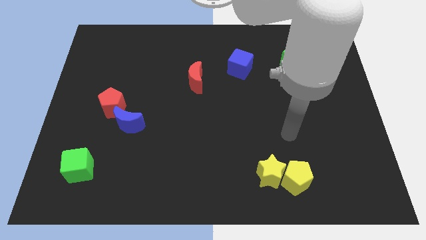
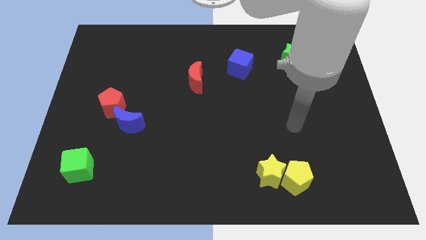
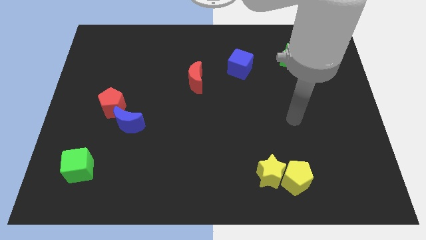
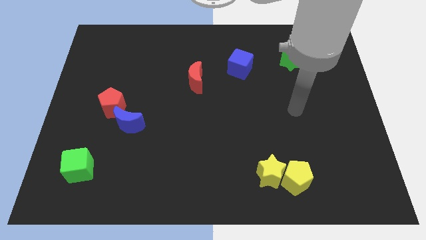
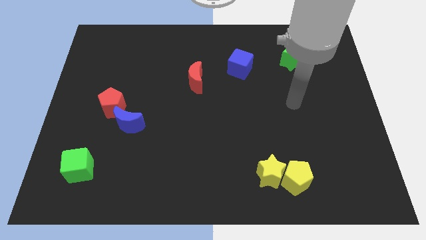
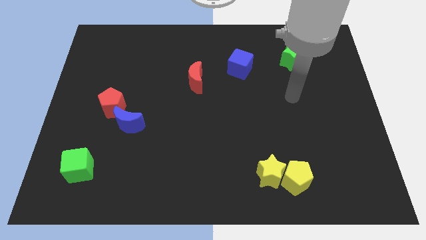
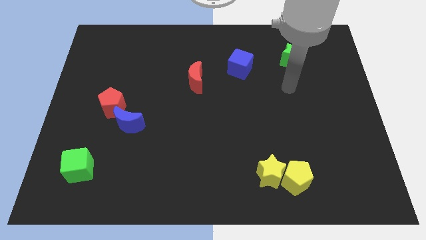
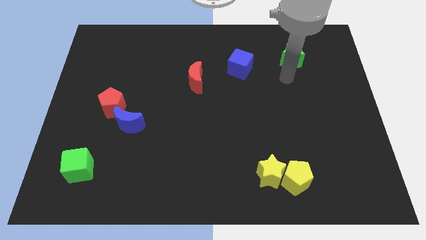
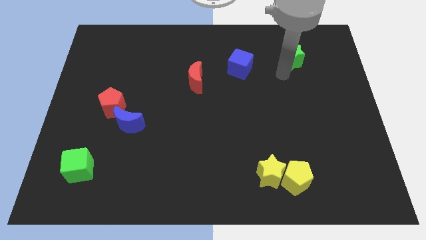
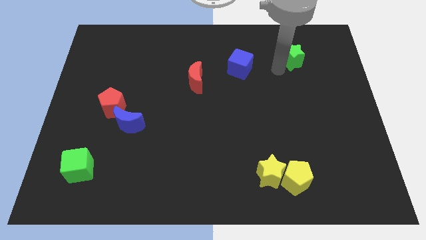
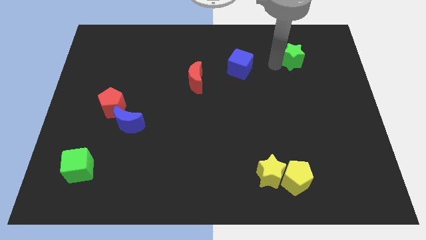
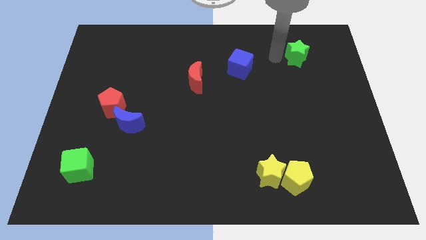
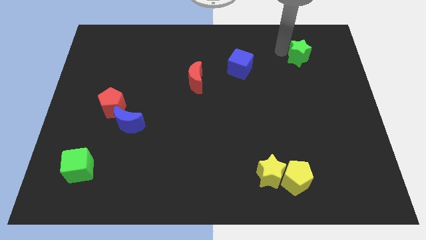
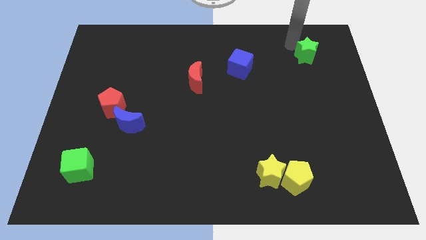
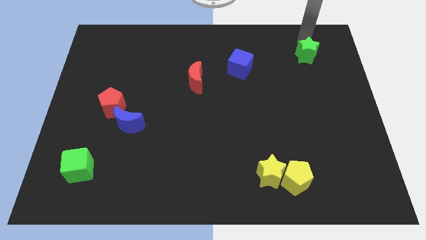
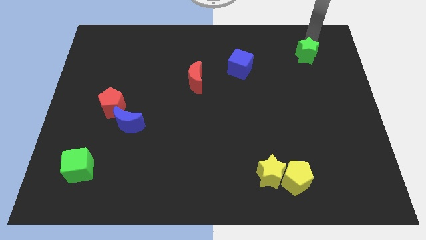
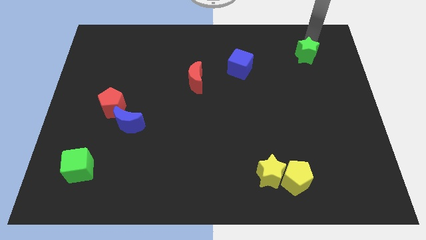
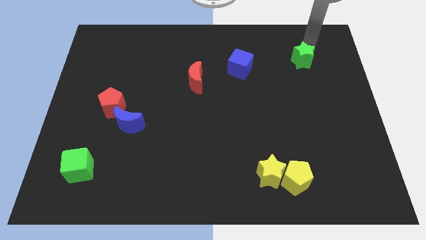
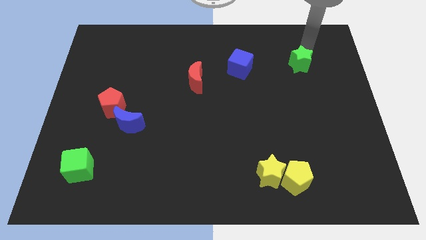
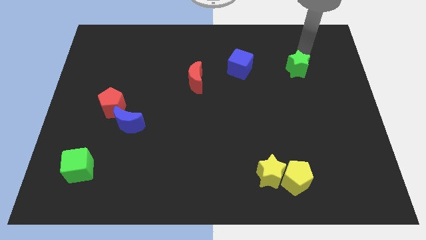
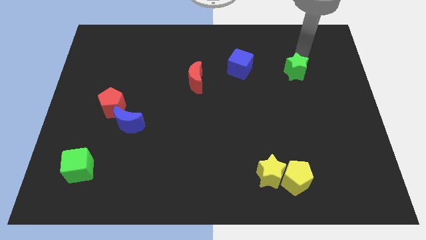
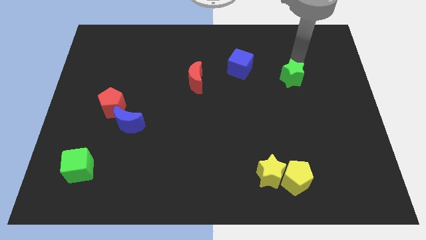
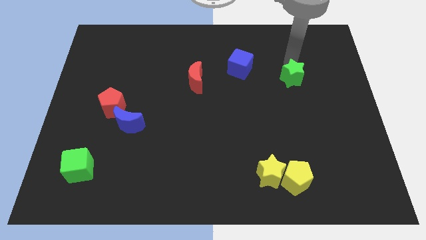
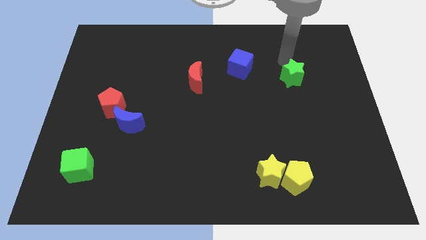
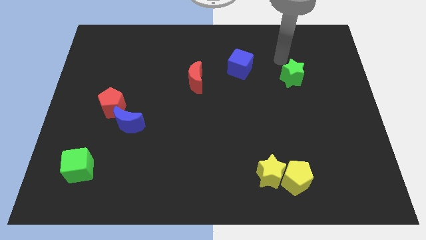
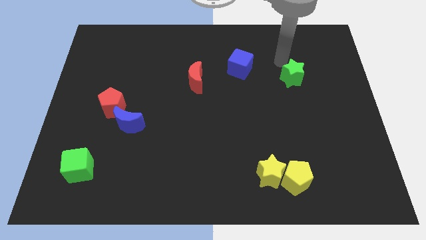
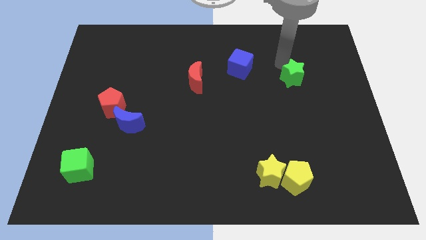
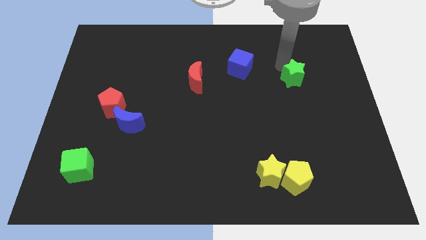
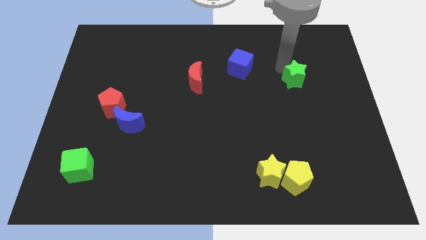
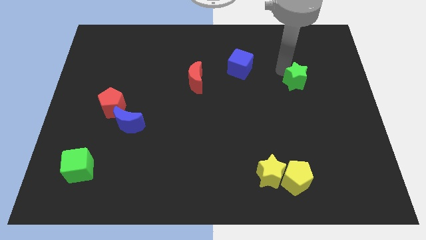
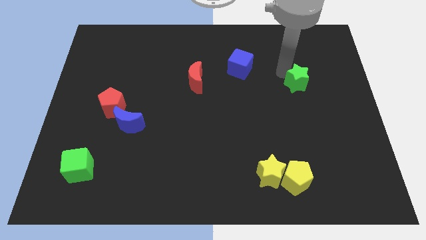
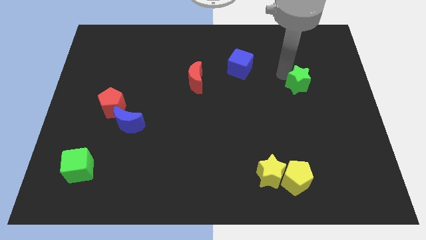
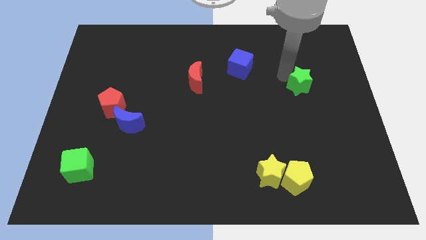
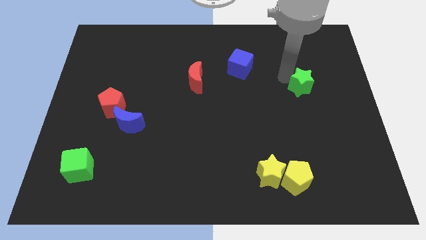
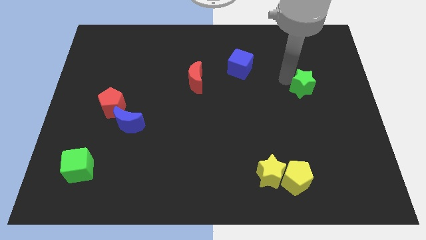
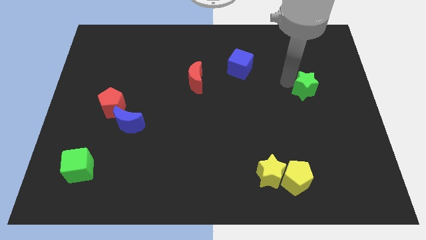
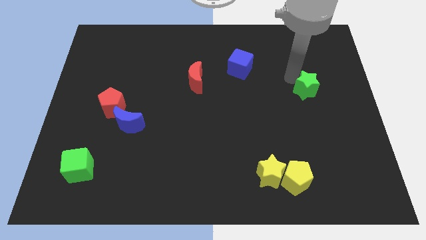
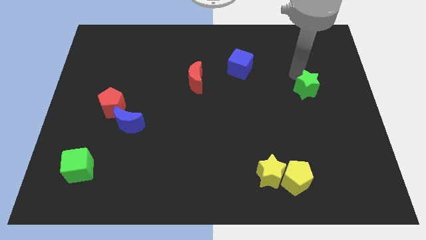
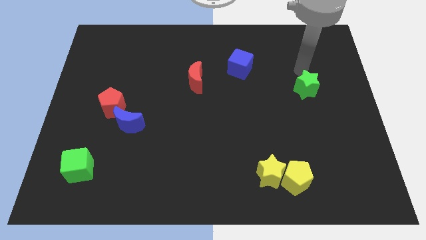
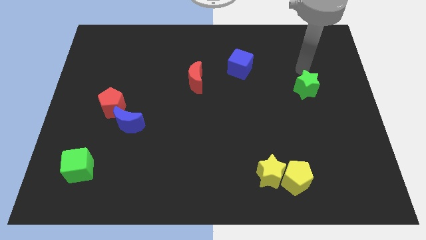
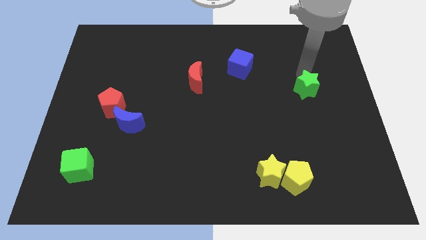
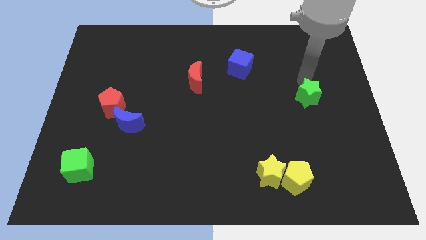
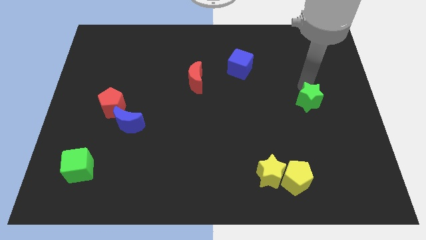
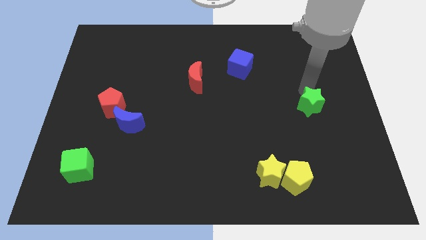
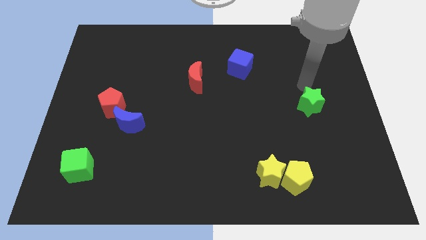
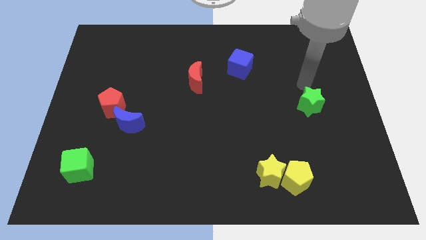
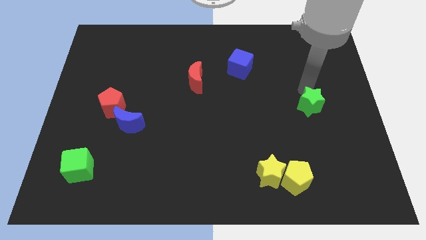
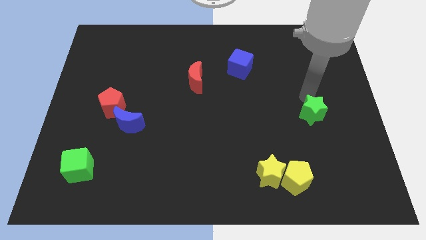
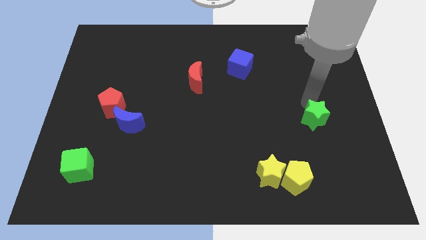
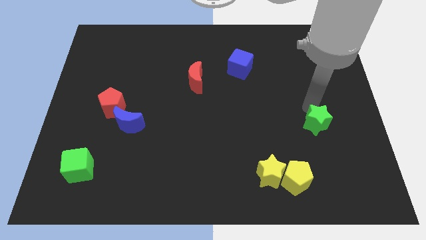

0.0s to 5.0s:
move the green star downwards

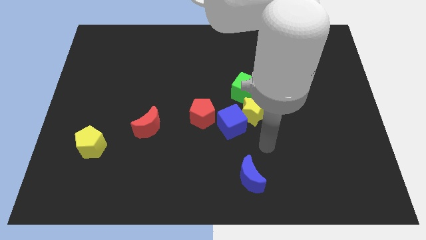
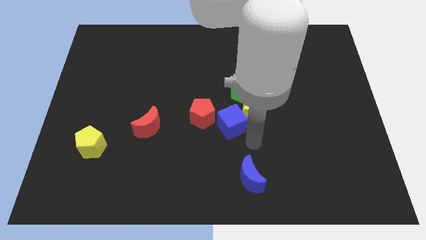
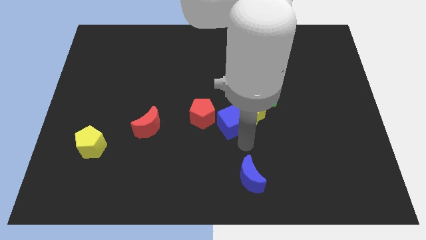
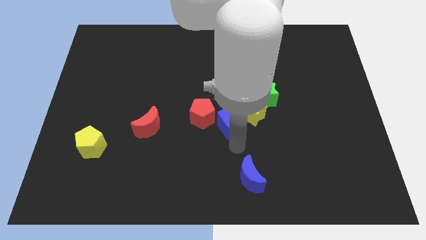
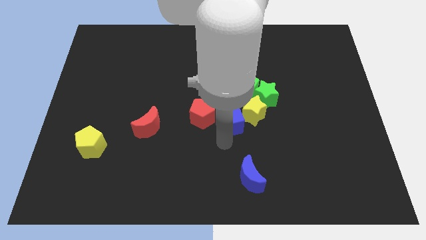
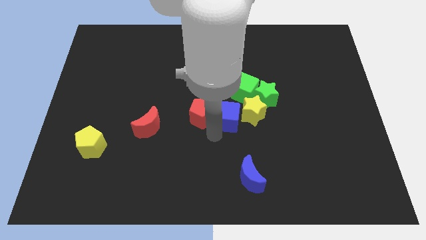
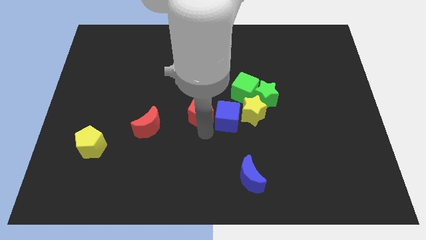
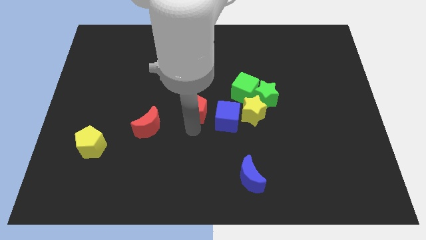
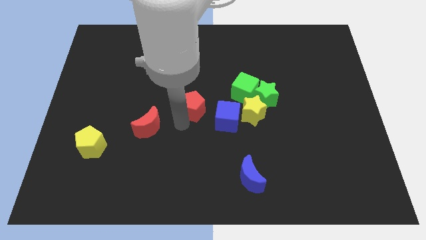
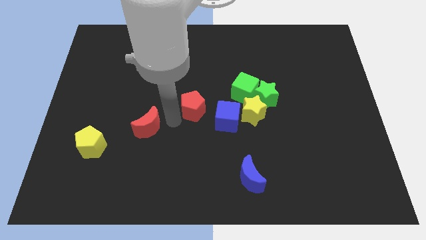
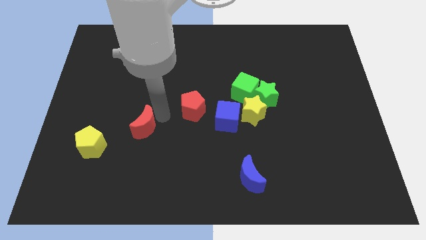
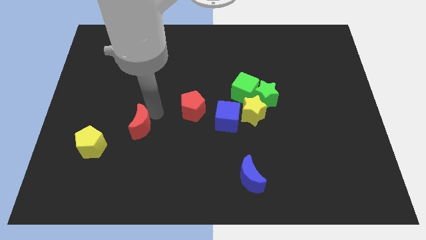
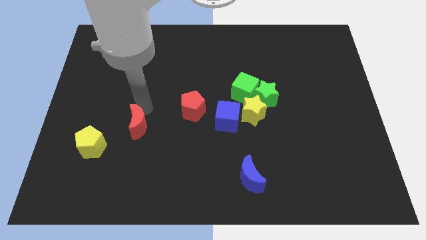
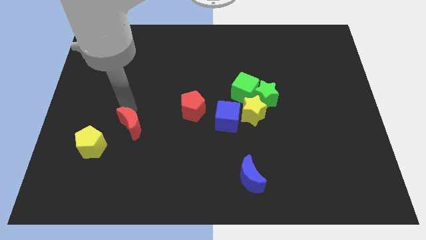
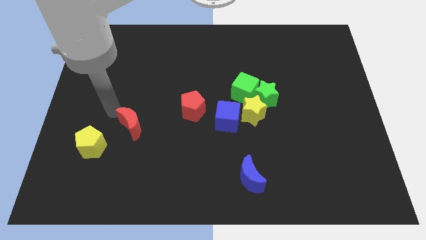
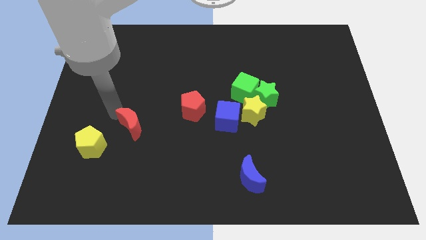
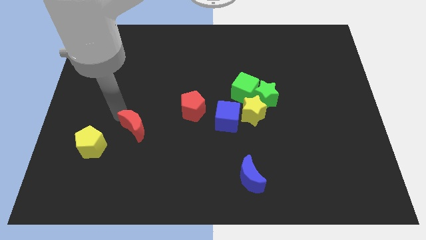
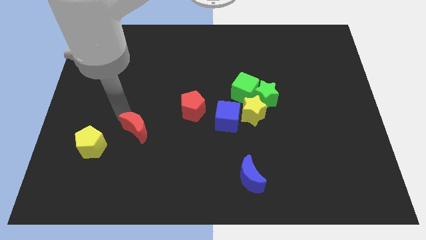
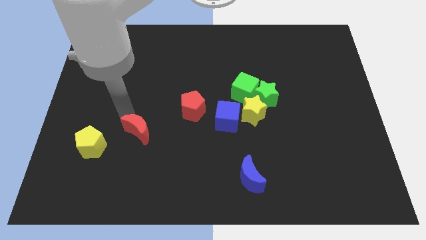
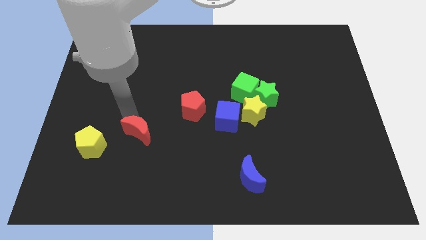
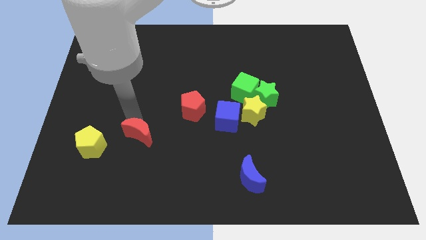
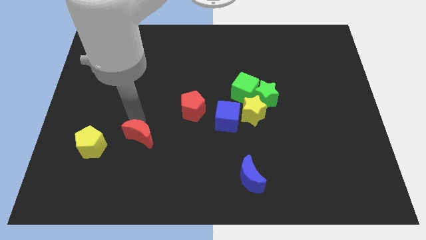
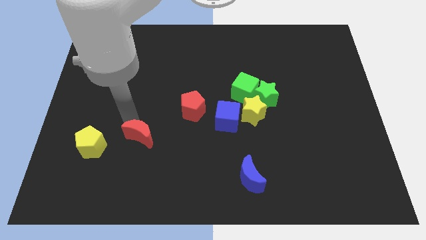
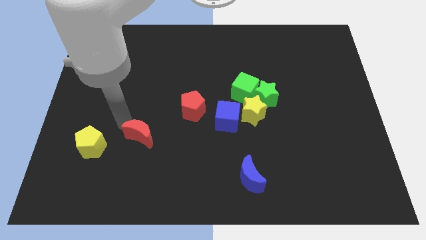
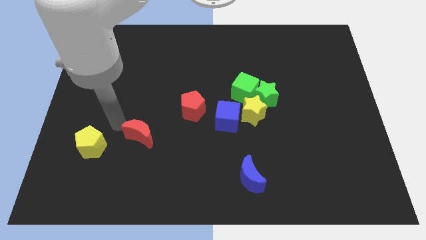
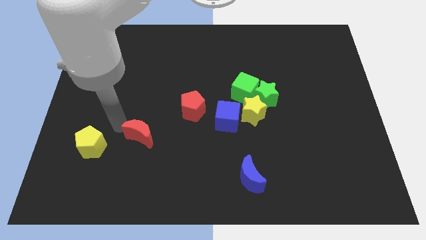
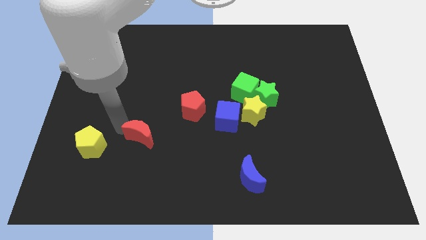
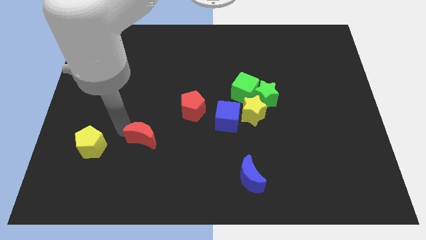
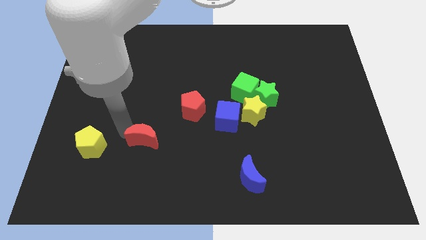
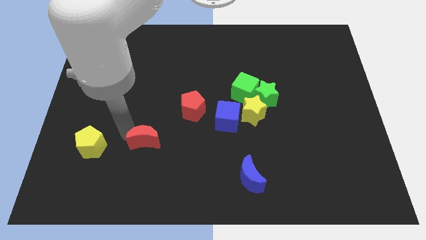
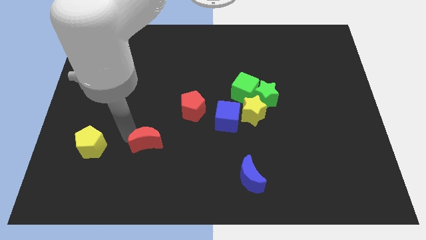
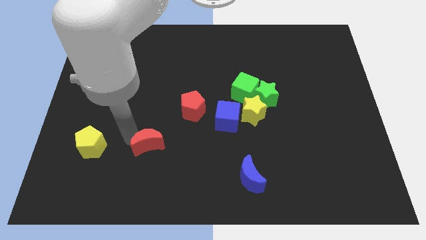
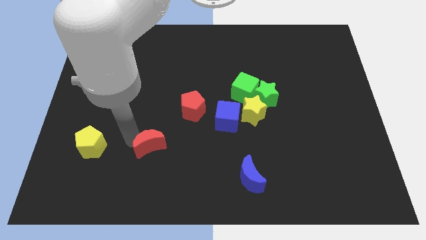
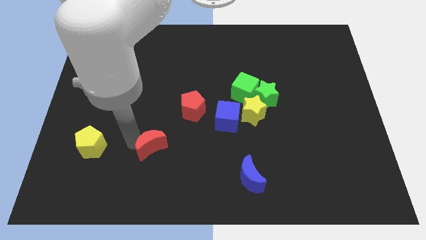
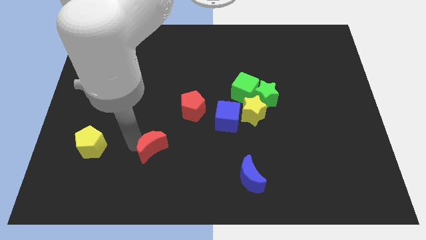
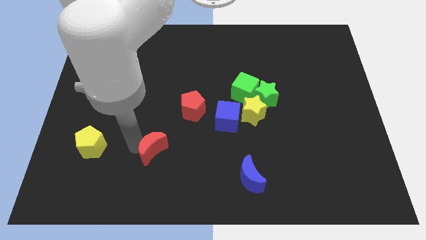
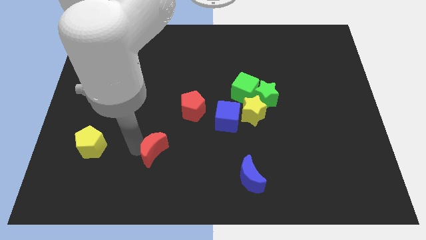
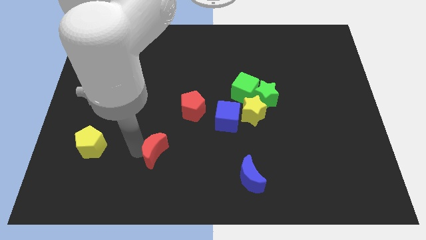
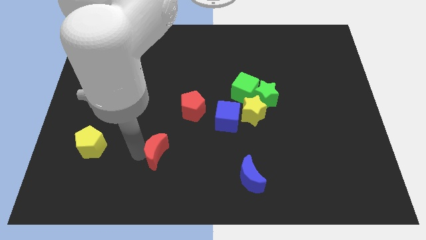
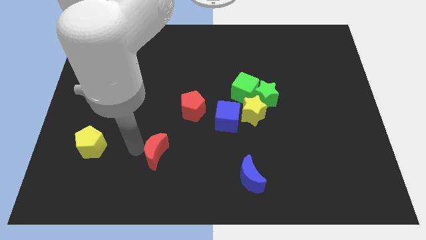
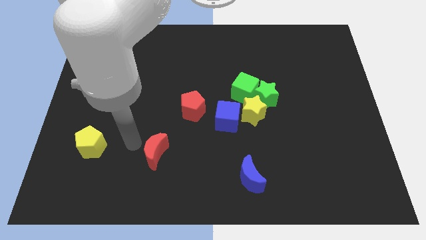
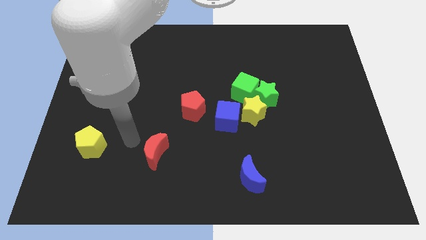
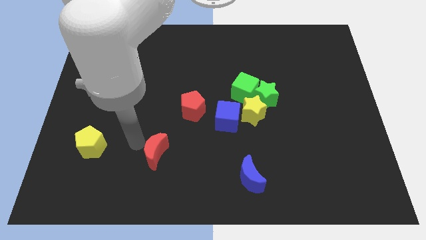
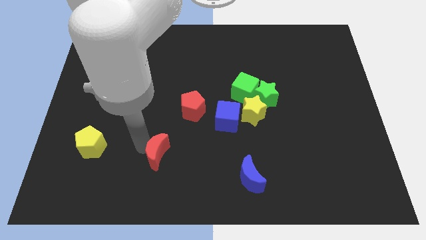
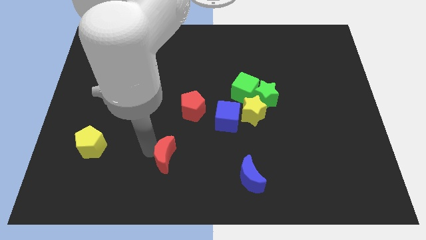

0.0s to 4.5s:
slightly push the red moon downwards and to the right diagonally
